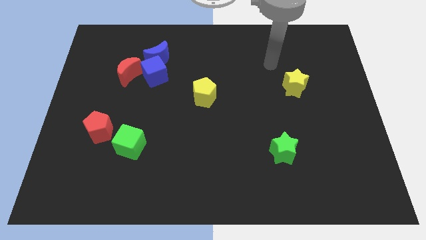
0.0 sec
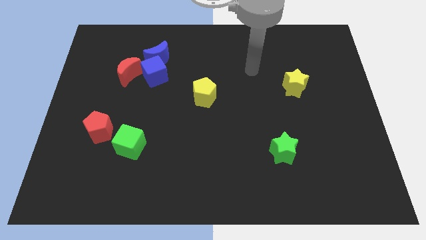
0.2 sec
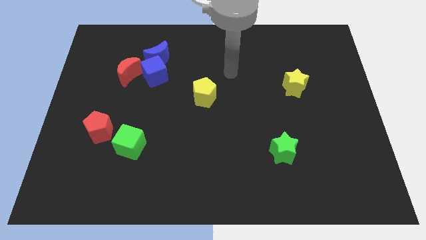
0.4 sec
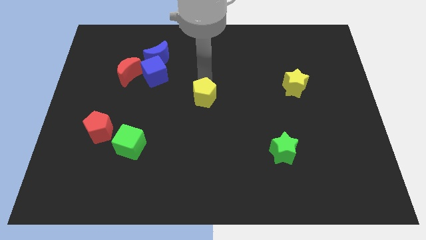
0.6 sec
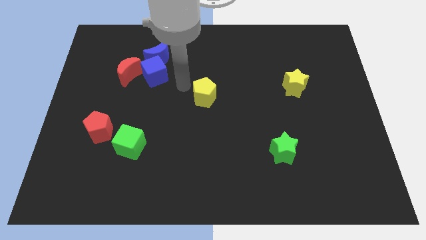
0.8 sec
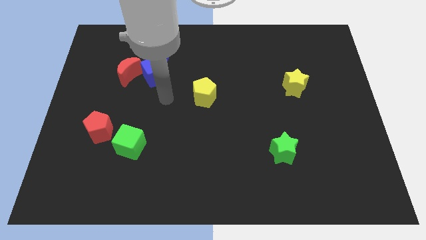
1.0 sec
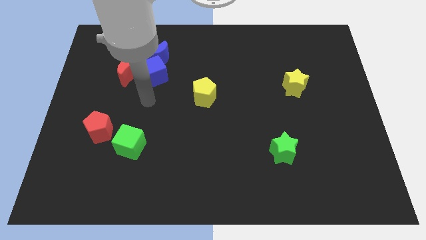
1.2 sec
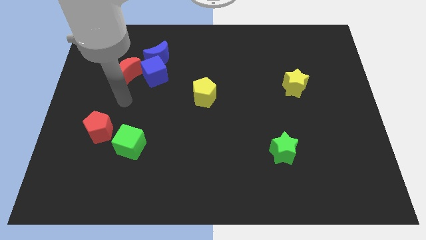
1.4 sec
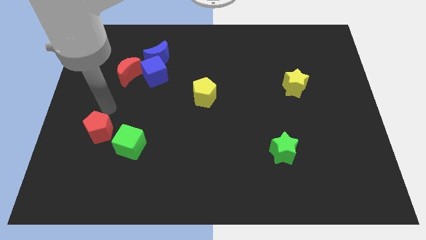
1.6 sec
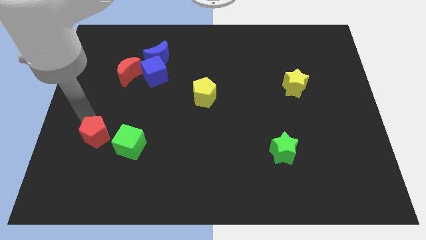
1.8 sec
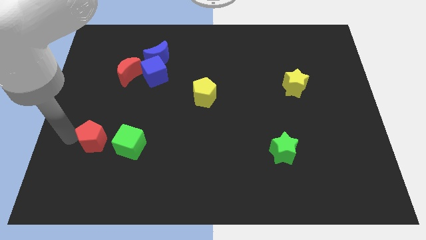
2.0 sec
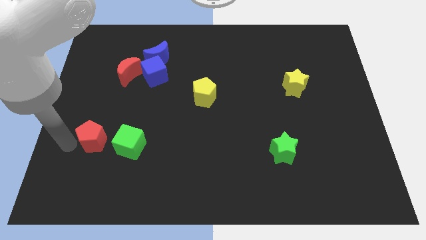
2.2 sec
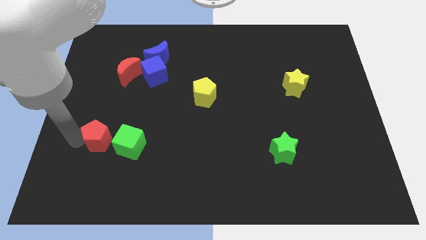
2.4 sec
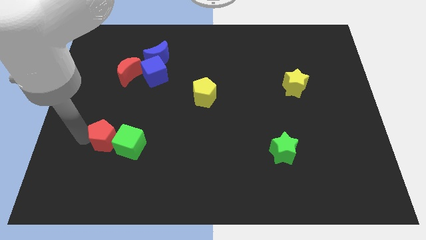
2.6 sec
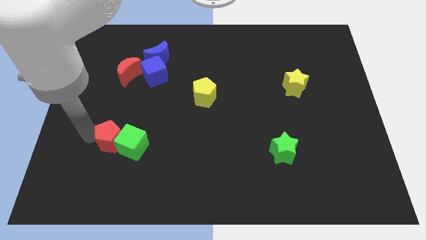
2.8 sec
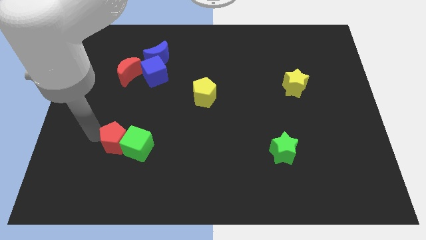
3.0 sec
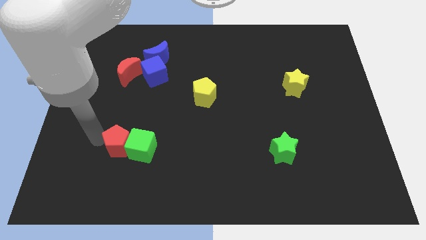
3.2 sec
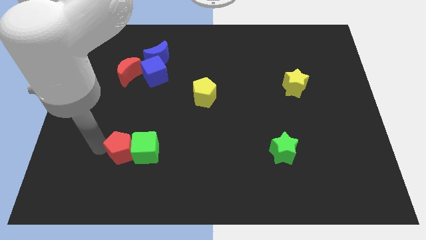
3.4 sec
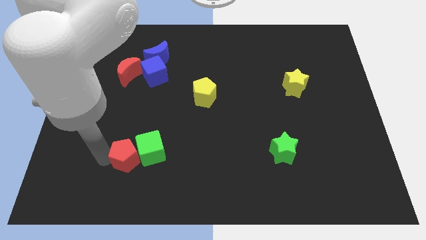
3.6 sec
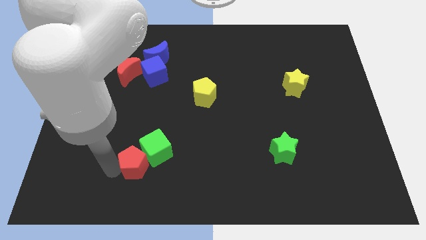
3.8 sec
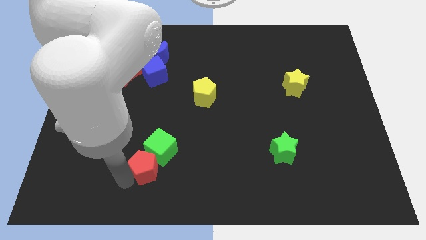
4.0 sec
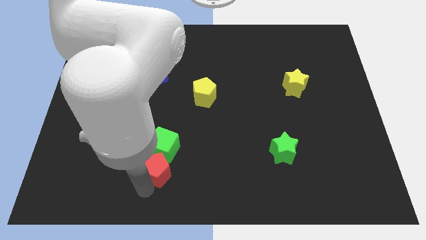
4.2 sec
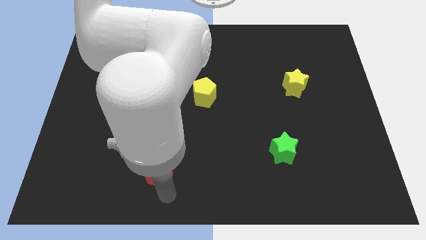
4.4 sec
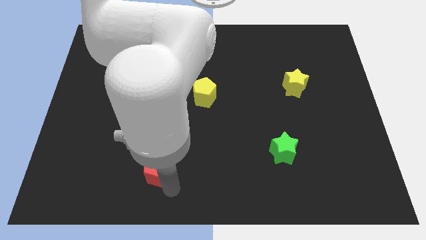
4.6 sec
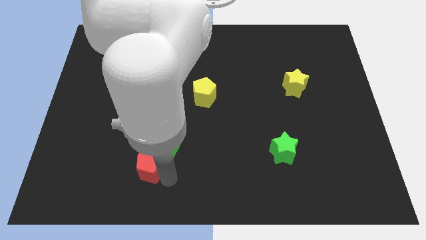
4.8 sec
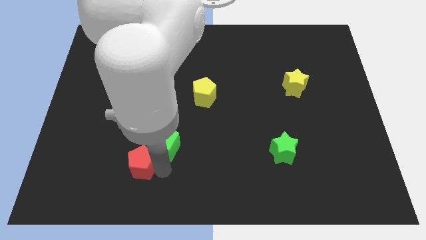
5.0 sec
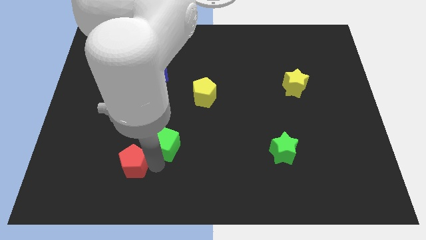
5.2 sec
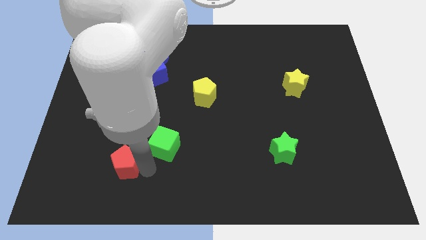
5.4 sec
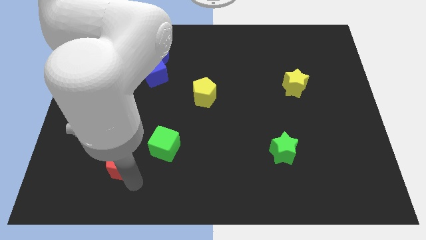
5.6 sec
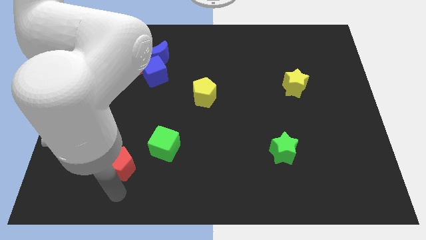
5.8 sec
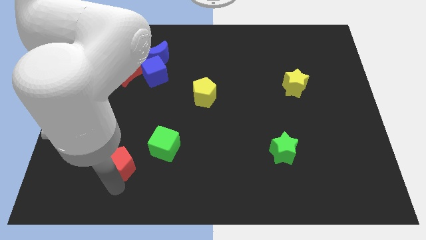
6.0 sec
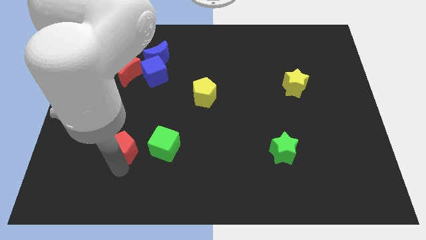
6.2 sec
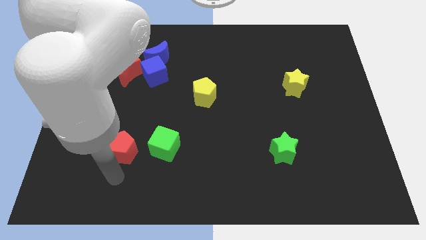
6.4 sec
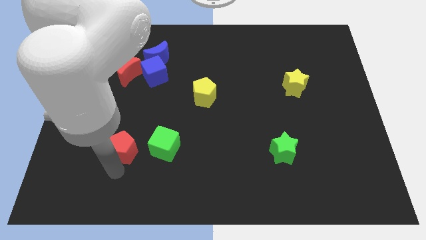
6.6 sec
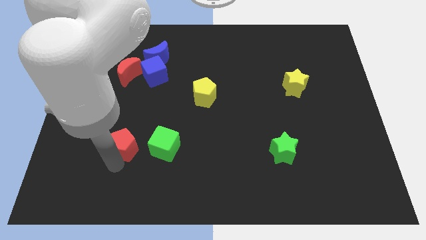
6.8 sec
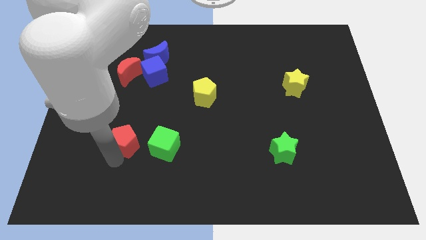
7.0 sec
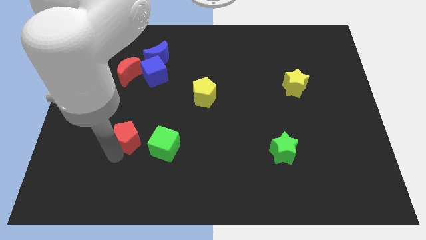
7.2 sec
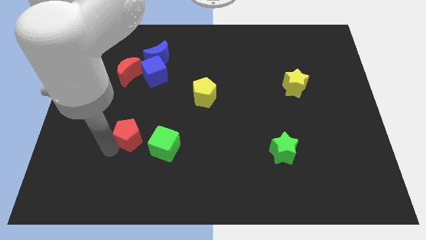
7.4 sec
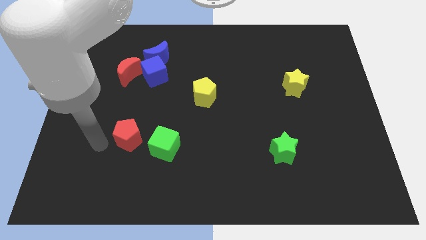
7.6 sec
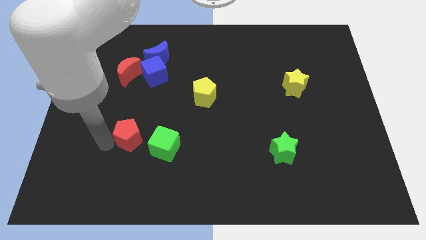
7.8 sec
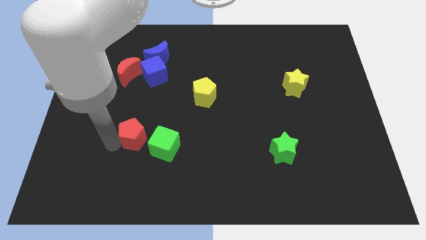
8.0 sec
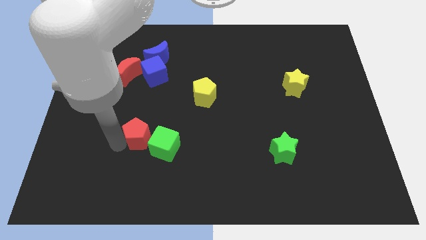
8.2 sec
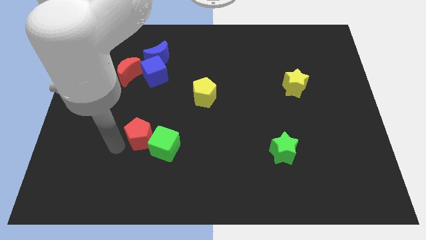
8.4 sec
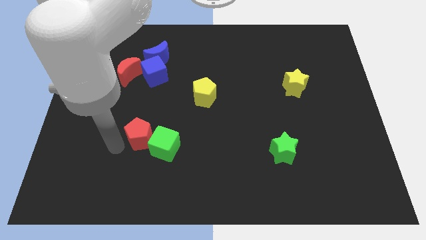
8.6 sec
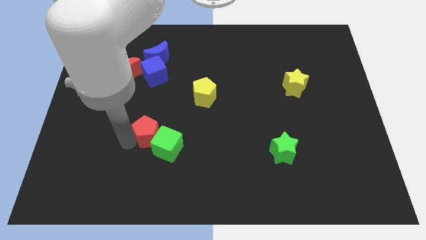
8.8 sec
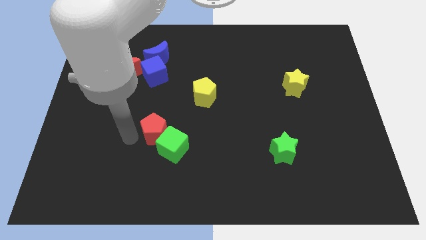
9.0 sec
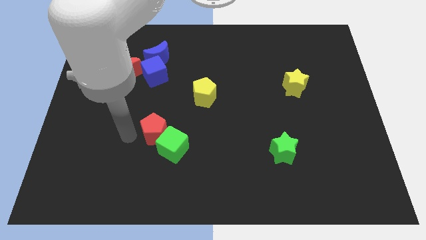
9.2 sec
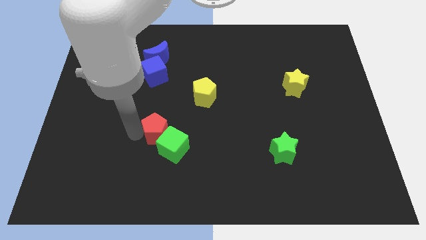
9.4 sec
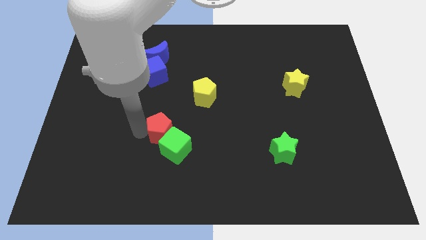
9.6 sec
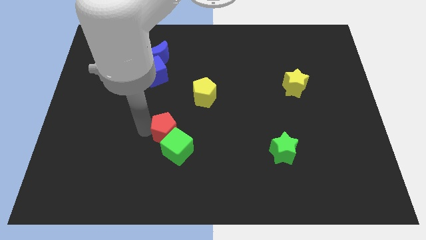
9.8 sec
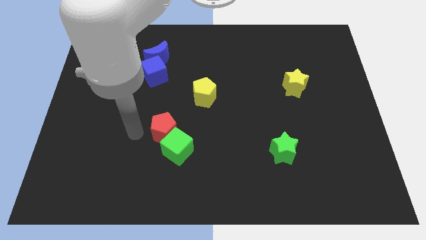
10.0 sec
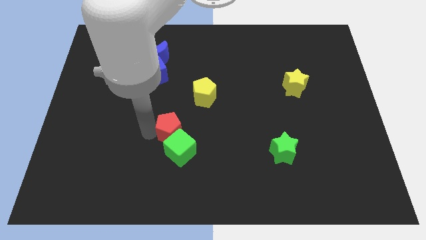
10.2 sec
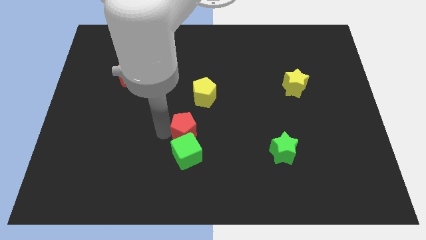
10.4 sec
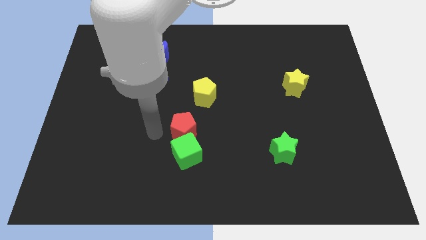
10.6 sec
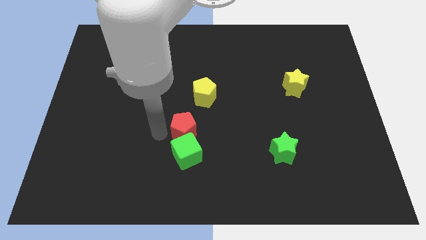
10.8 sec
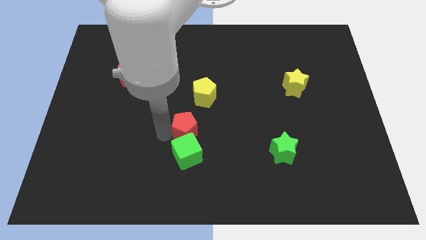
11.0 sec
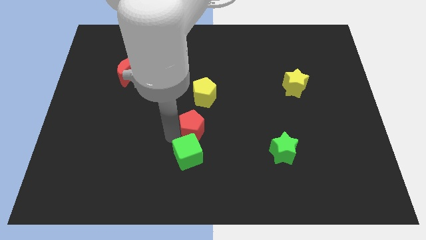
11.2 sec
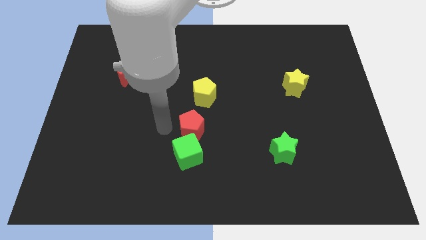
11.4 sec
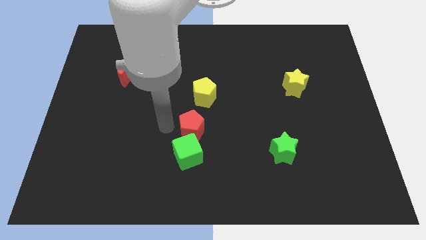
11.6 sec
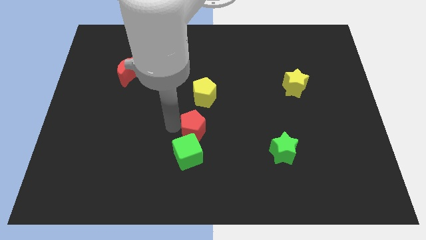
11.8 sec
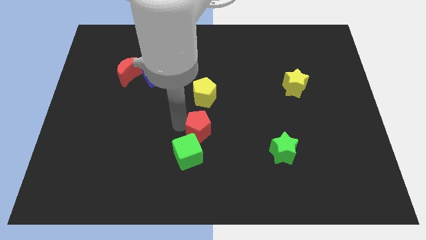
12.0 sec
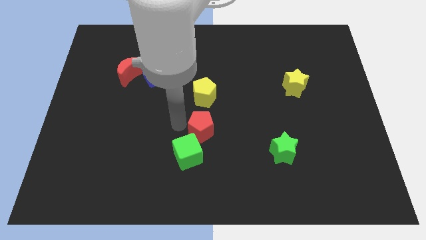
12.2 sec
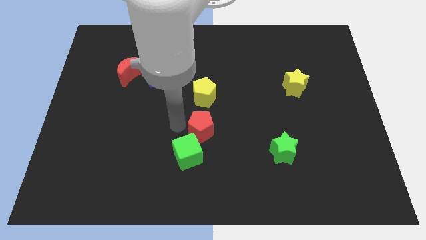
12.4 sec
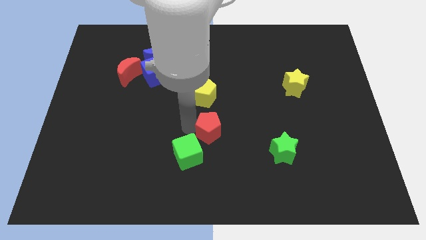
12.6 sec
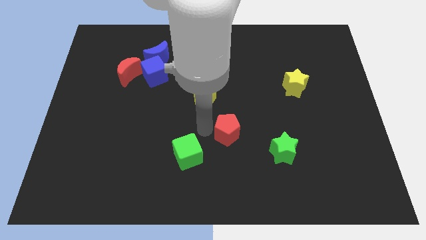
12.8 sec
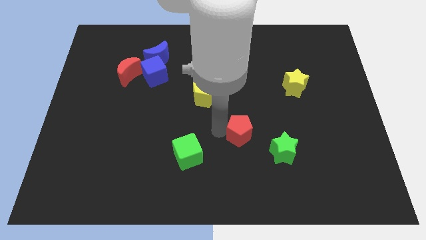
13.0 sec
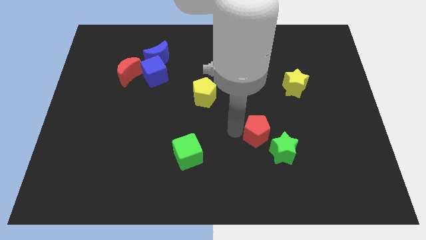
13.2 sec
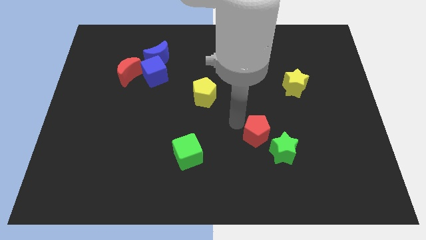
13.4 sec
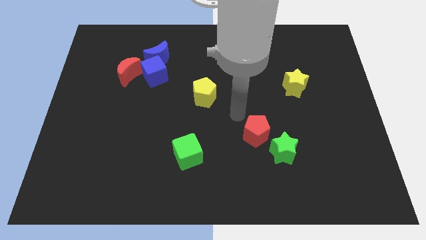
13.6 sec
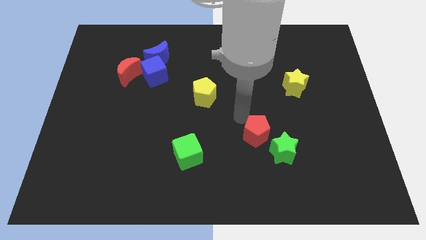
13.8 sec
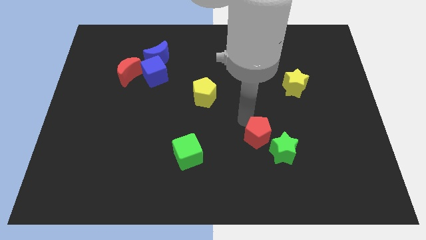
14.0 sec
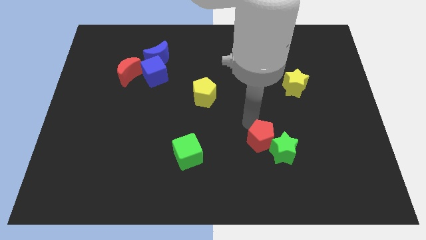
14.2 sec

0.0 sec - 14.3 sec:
move the red pentagon to the green star
